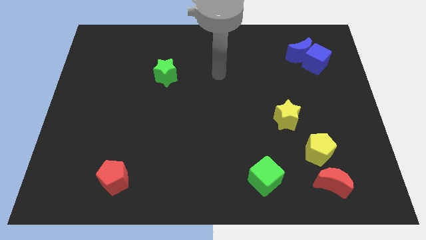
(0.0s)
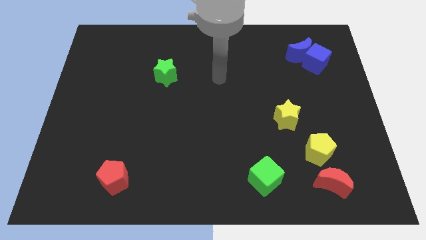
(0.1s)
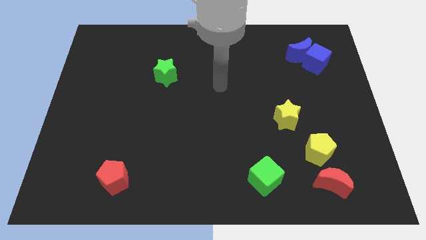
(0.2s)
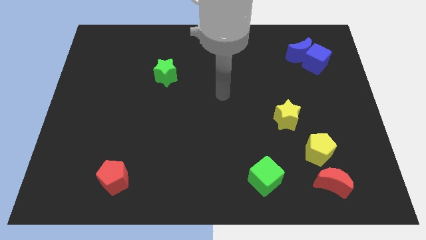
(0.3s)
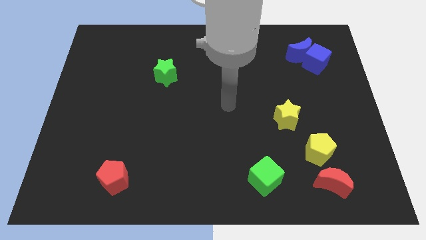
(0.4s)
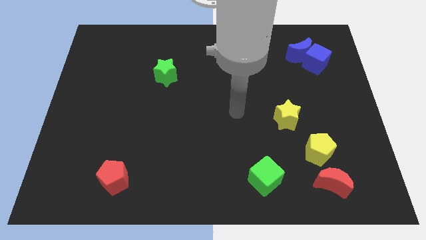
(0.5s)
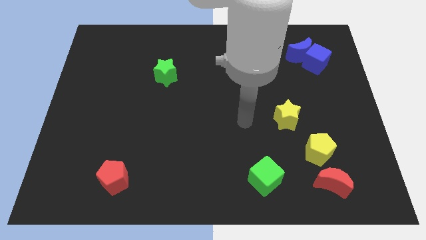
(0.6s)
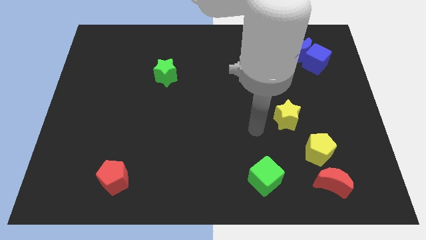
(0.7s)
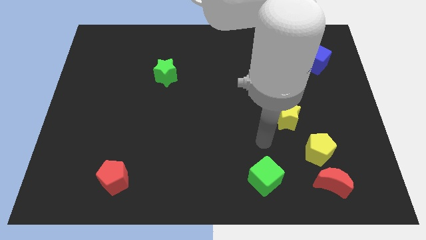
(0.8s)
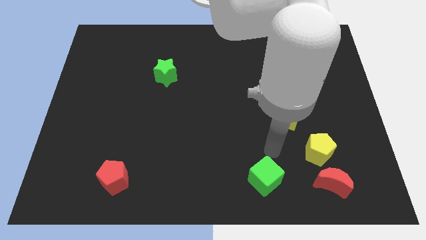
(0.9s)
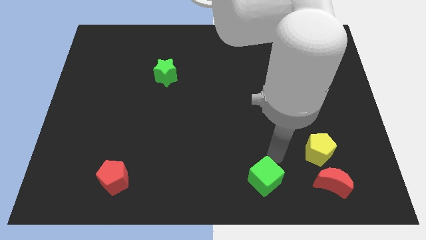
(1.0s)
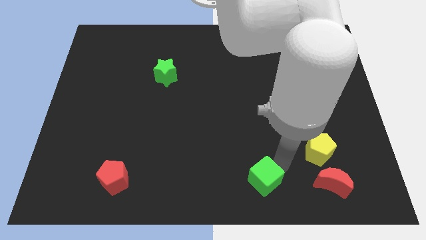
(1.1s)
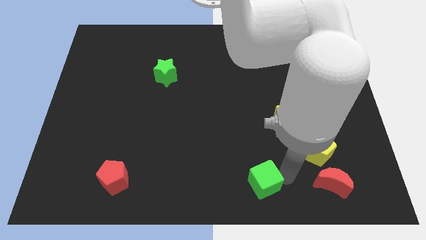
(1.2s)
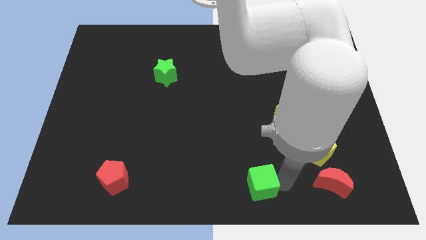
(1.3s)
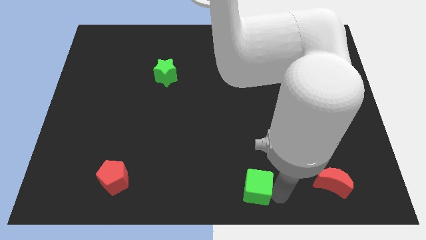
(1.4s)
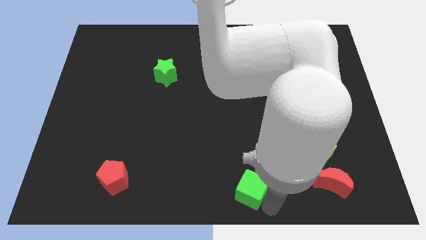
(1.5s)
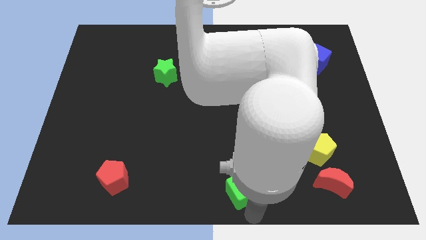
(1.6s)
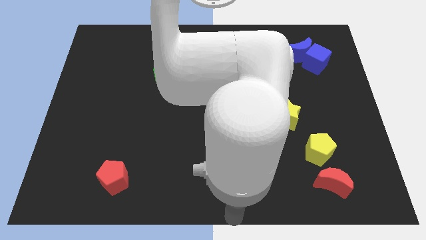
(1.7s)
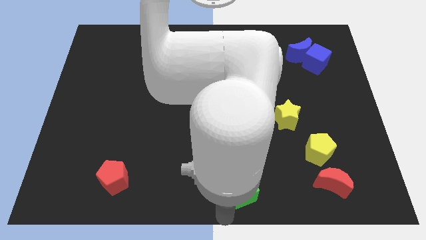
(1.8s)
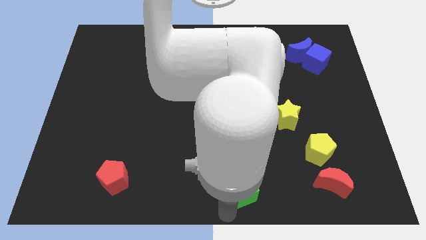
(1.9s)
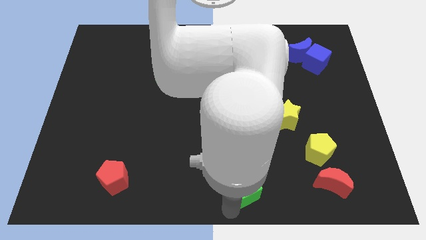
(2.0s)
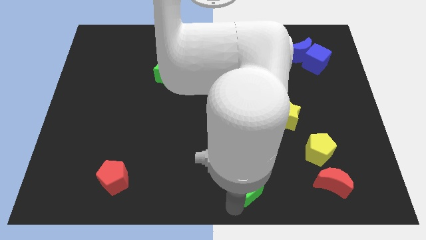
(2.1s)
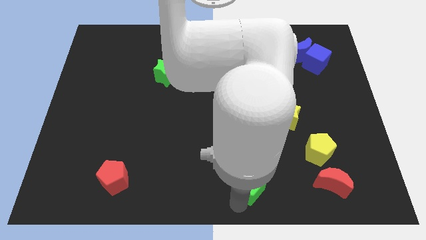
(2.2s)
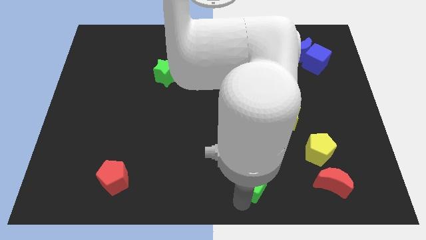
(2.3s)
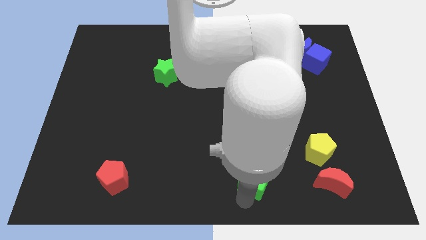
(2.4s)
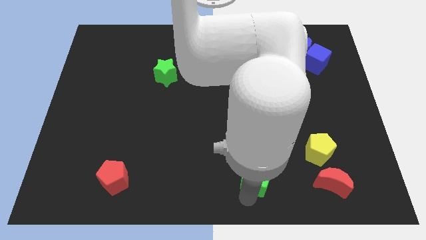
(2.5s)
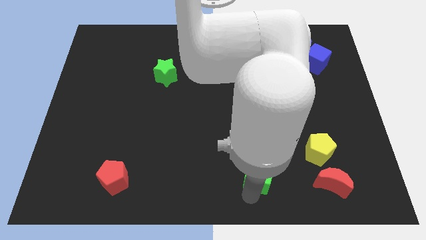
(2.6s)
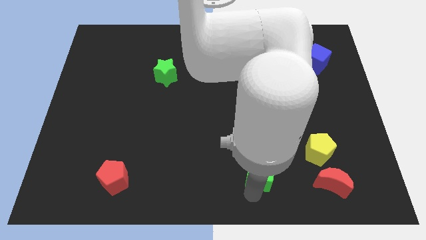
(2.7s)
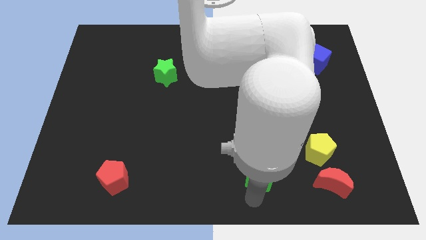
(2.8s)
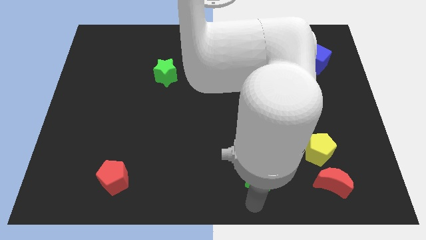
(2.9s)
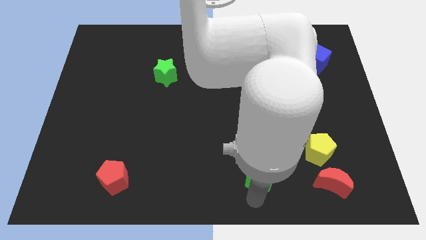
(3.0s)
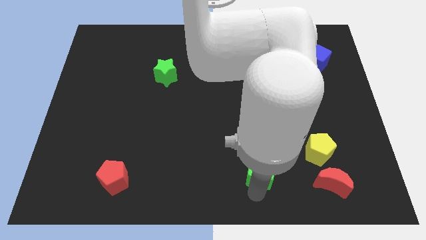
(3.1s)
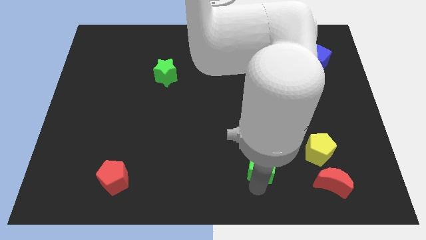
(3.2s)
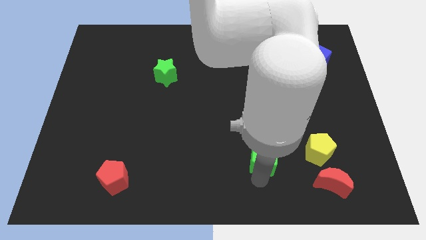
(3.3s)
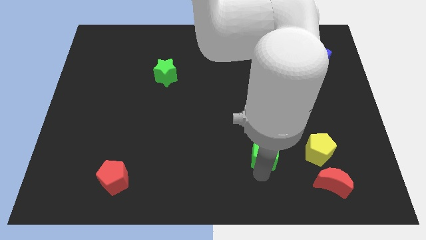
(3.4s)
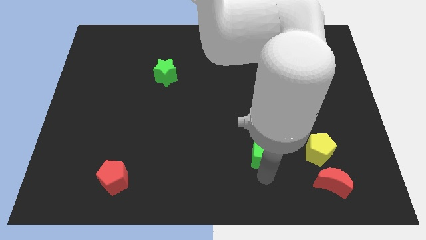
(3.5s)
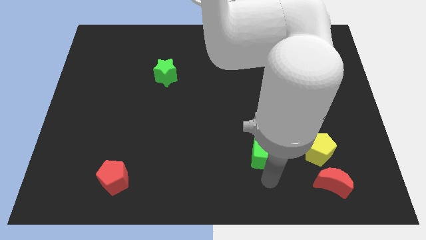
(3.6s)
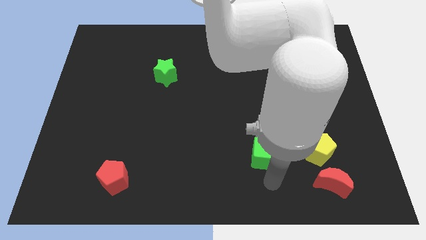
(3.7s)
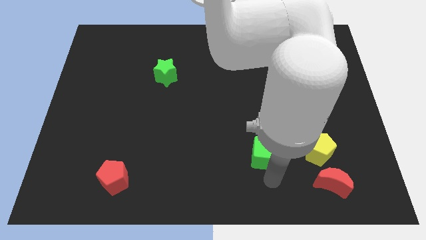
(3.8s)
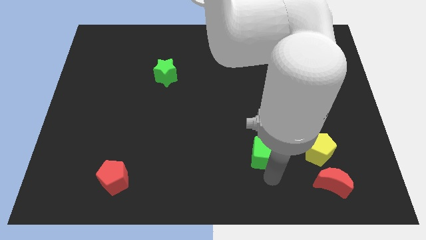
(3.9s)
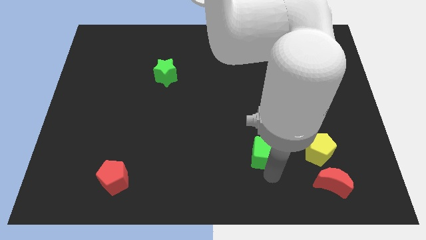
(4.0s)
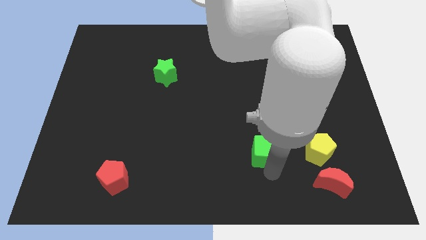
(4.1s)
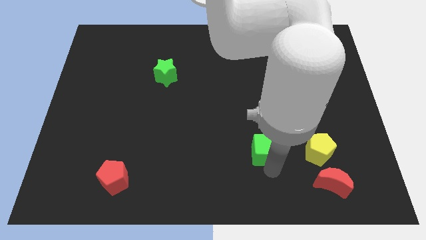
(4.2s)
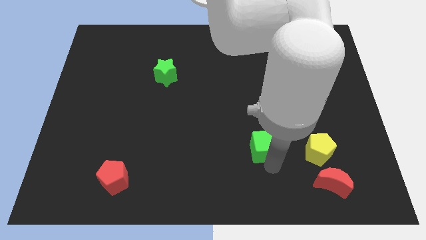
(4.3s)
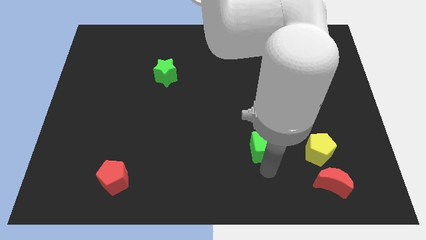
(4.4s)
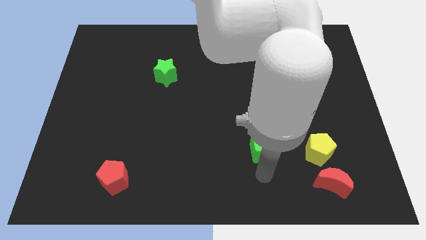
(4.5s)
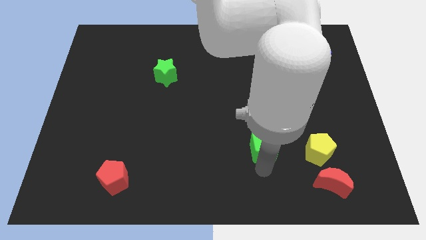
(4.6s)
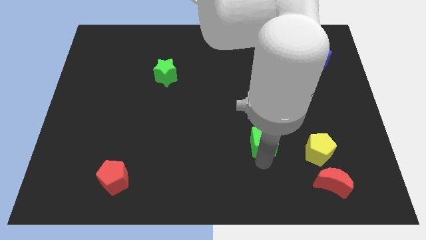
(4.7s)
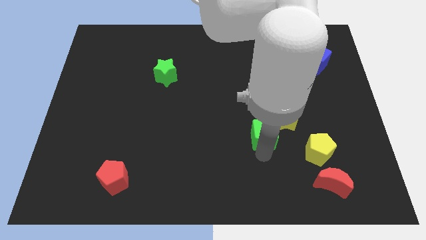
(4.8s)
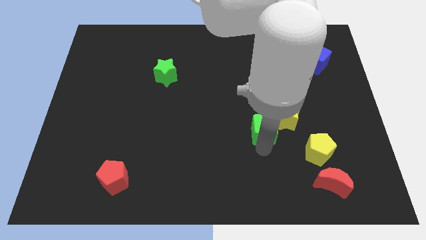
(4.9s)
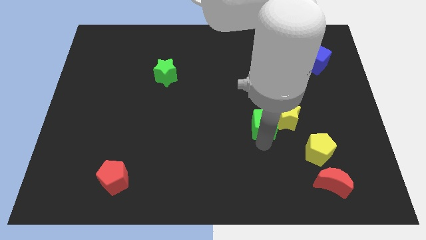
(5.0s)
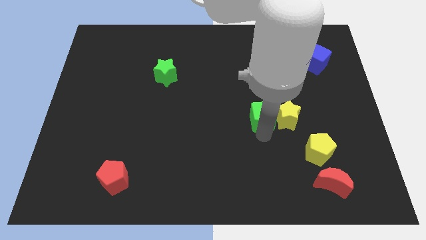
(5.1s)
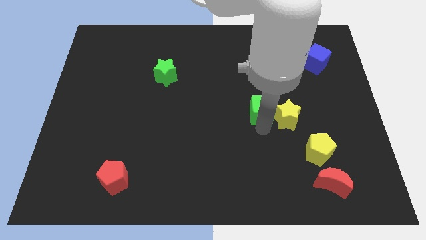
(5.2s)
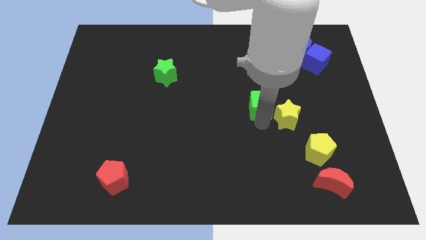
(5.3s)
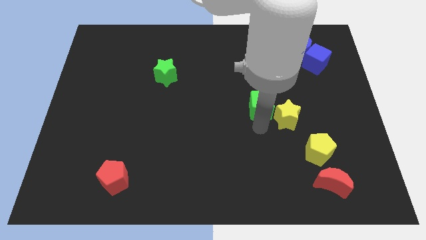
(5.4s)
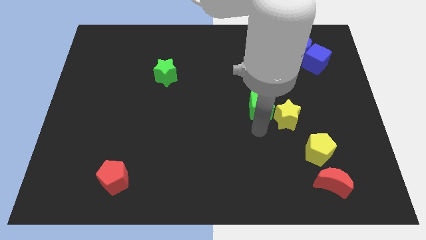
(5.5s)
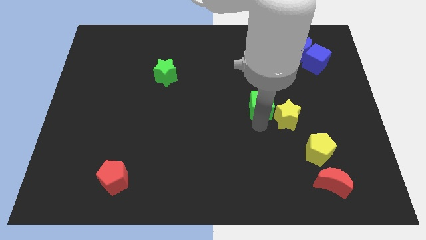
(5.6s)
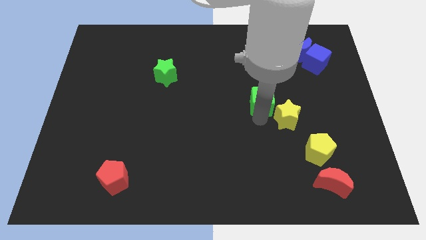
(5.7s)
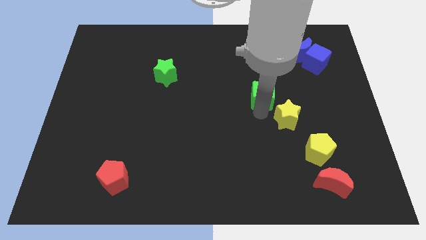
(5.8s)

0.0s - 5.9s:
move the green cube up

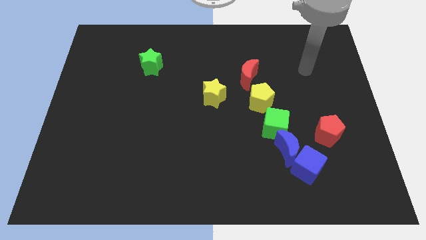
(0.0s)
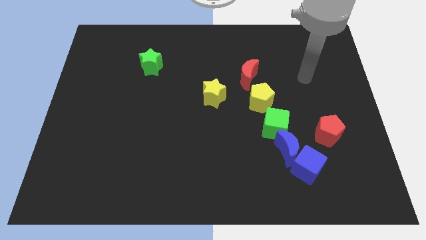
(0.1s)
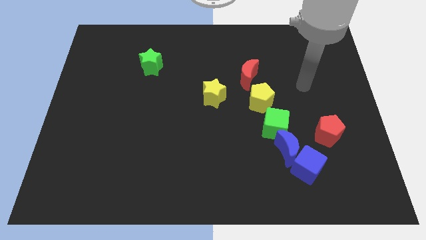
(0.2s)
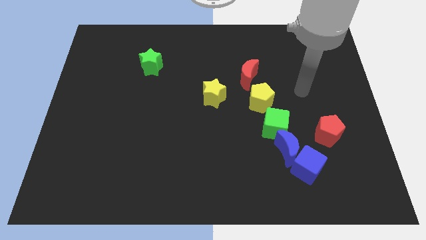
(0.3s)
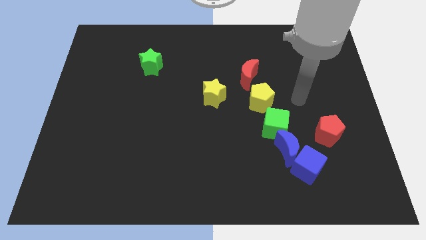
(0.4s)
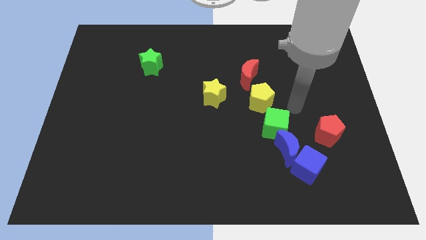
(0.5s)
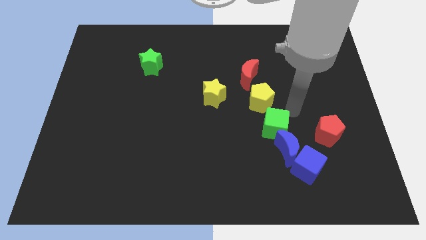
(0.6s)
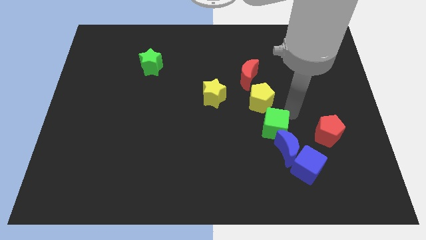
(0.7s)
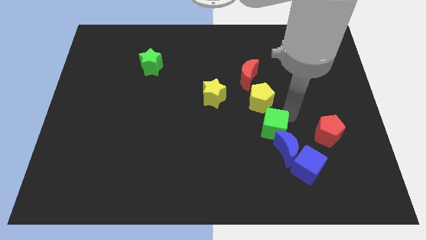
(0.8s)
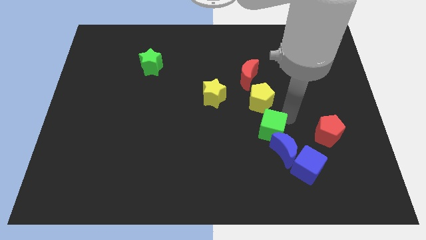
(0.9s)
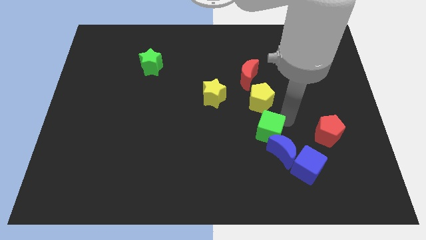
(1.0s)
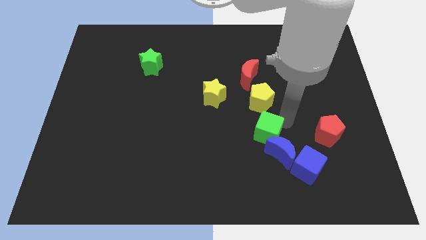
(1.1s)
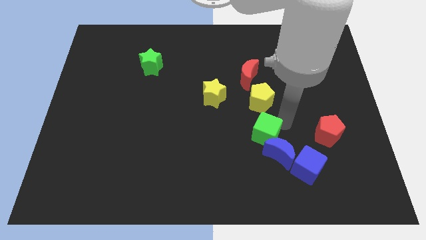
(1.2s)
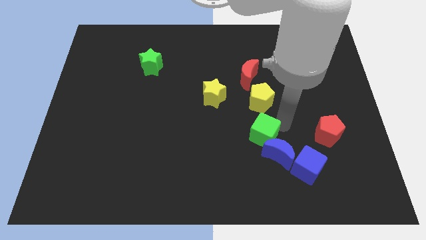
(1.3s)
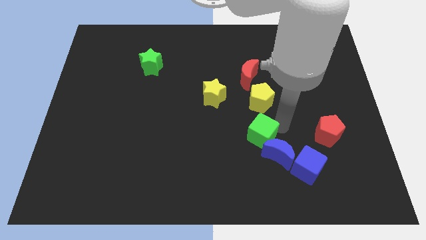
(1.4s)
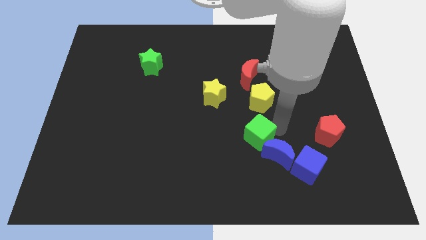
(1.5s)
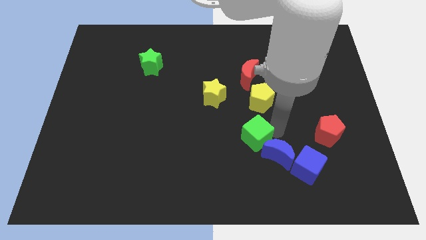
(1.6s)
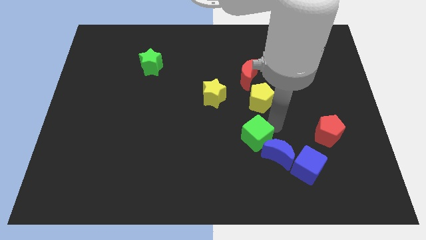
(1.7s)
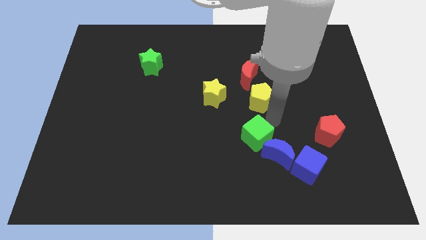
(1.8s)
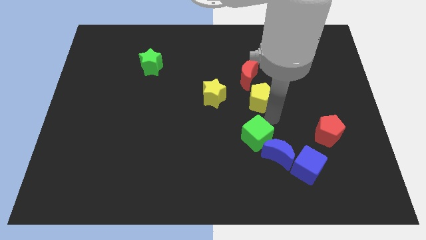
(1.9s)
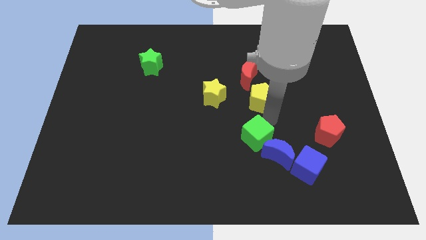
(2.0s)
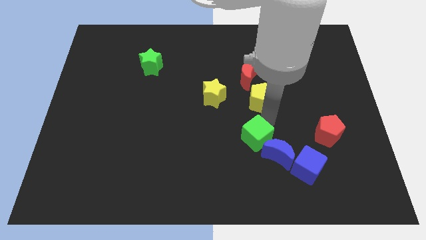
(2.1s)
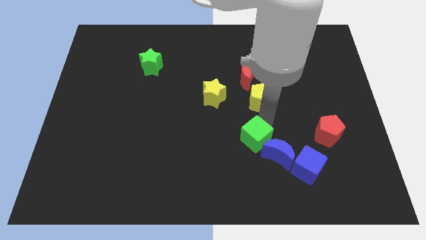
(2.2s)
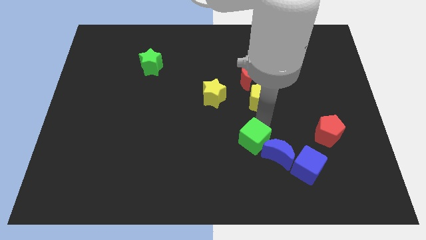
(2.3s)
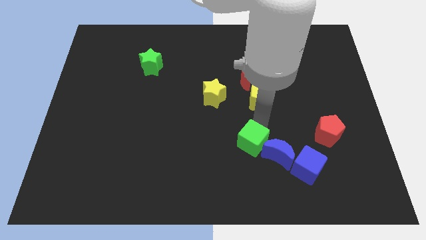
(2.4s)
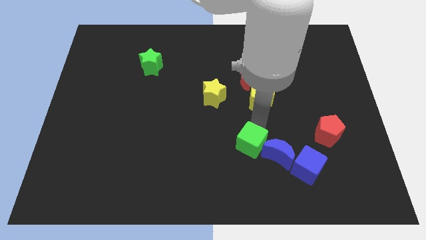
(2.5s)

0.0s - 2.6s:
slightly slide the green cube downwards and left
